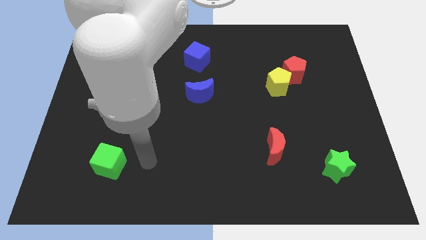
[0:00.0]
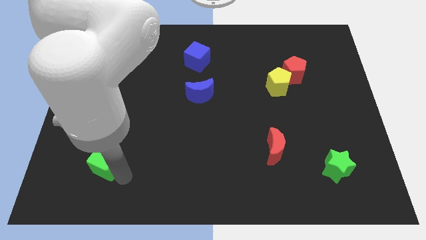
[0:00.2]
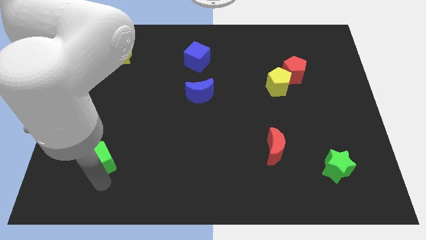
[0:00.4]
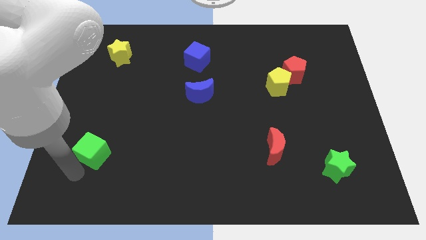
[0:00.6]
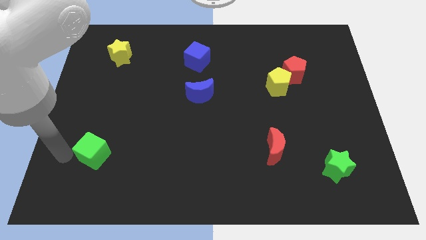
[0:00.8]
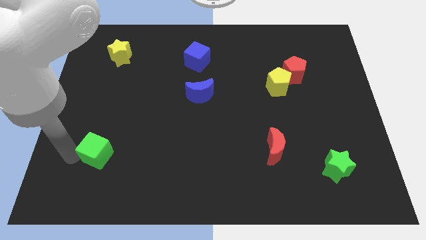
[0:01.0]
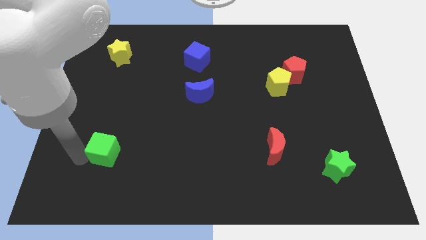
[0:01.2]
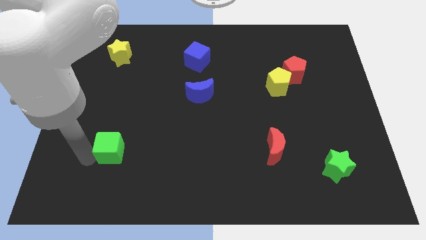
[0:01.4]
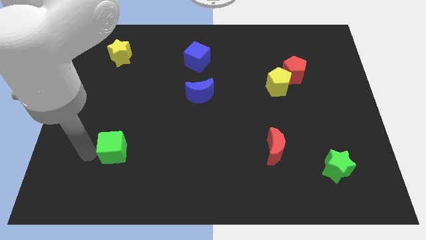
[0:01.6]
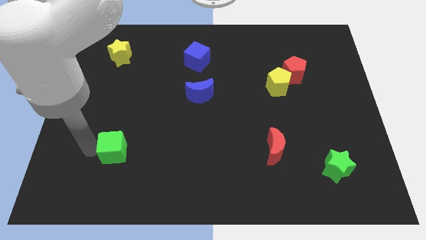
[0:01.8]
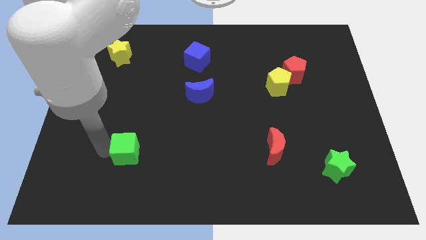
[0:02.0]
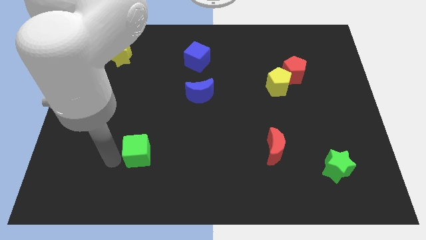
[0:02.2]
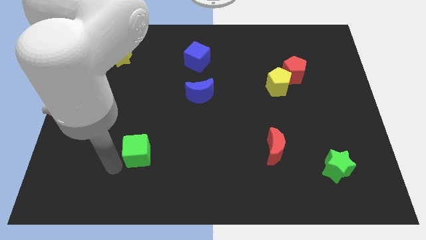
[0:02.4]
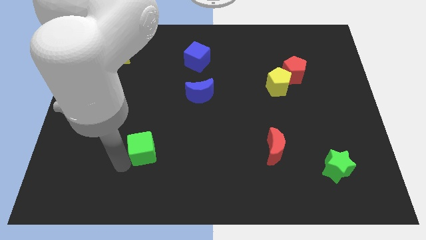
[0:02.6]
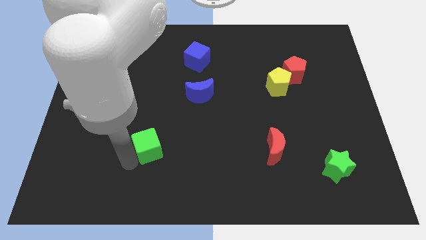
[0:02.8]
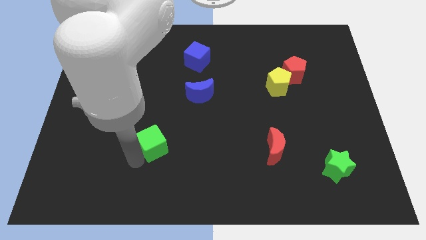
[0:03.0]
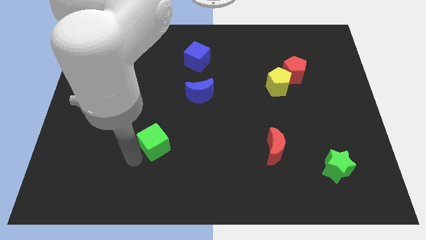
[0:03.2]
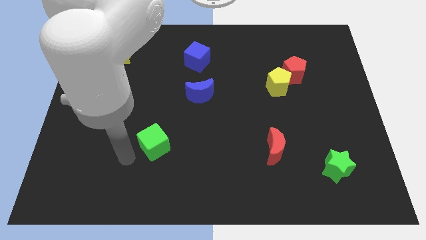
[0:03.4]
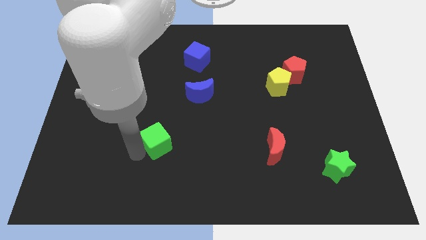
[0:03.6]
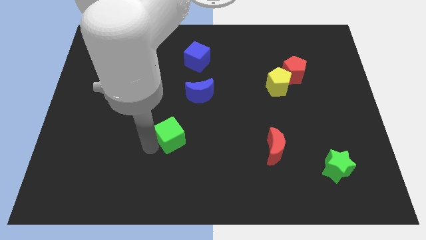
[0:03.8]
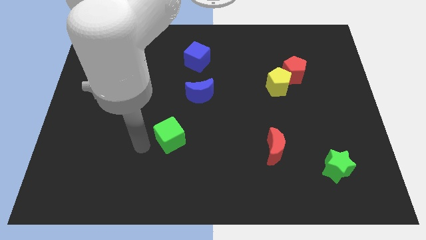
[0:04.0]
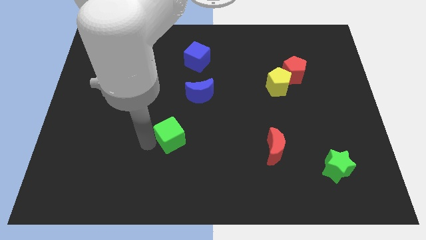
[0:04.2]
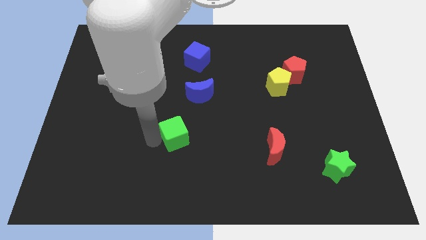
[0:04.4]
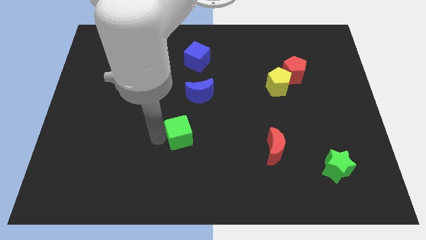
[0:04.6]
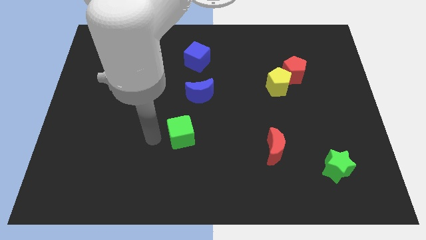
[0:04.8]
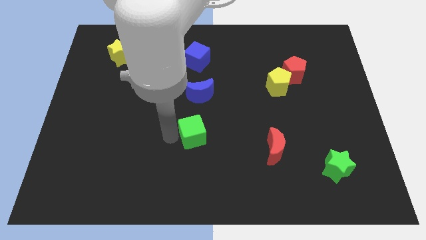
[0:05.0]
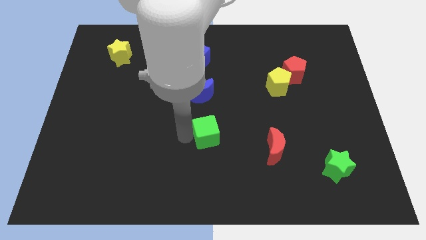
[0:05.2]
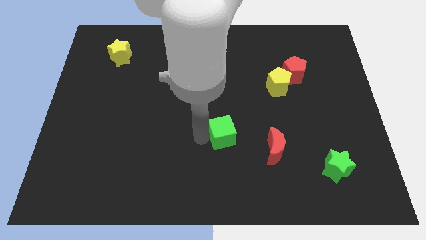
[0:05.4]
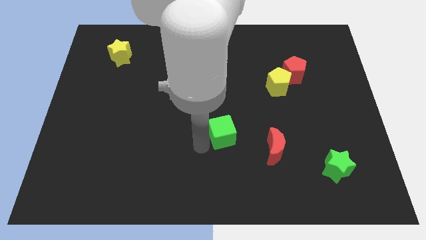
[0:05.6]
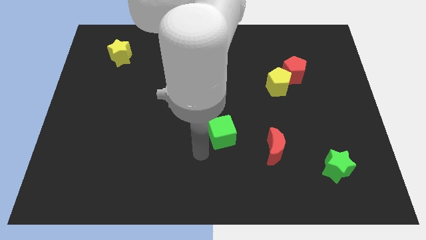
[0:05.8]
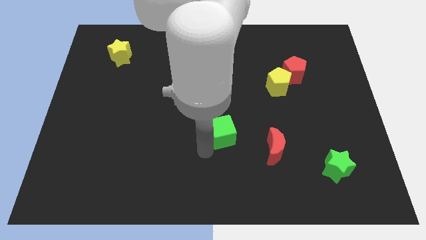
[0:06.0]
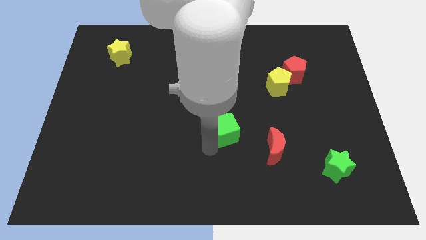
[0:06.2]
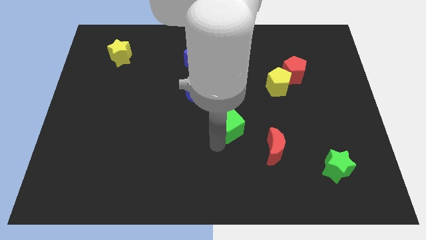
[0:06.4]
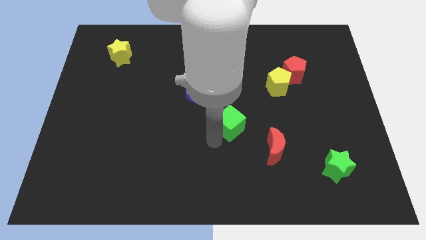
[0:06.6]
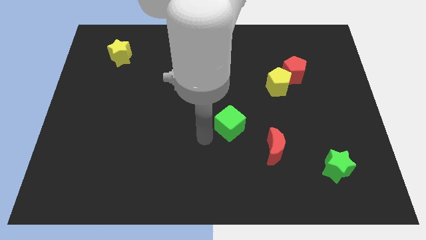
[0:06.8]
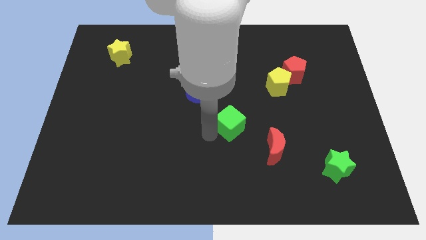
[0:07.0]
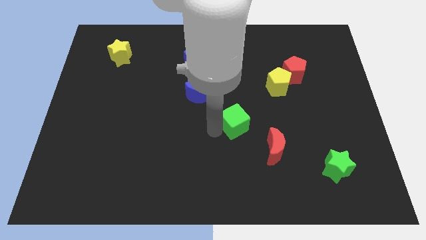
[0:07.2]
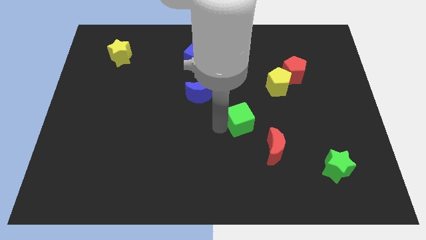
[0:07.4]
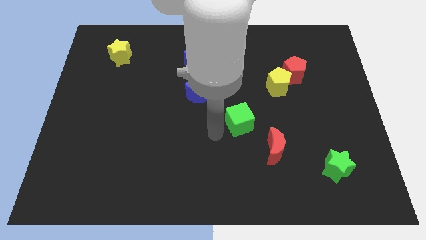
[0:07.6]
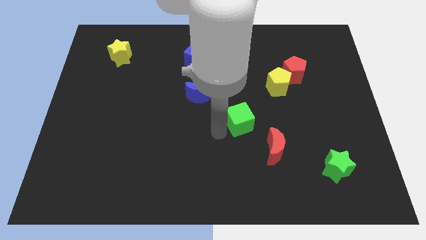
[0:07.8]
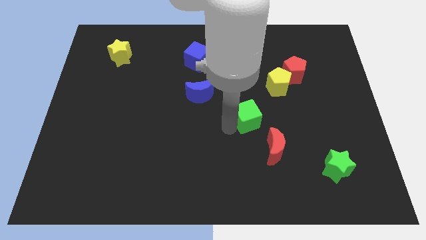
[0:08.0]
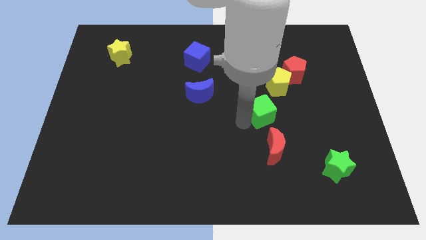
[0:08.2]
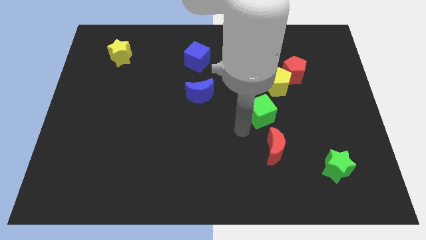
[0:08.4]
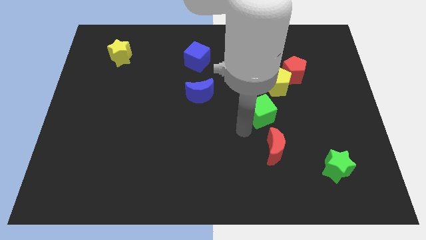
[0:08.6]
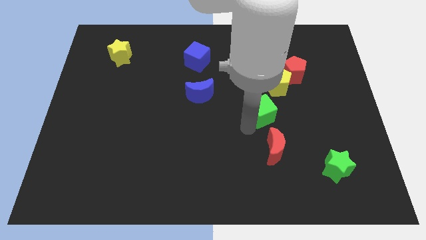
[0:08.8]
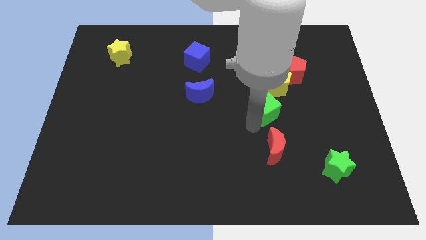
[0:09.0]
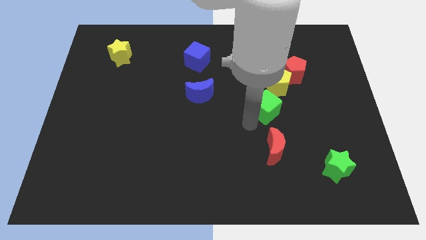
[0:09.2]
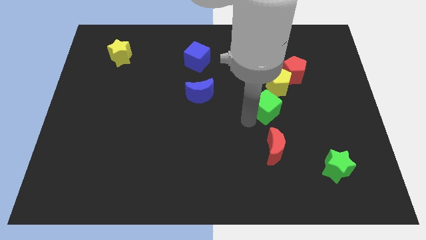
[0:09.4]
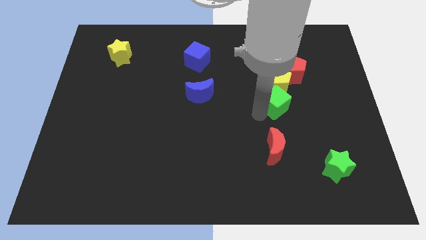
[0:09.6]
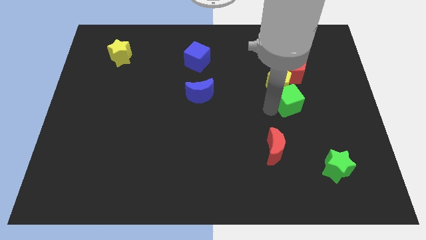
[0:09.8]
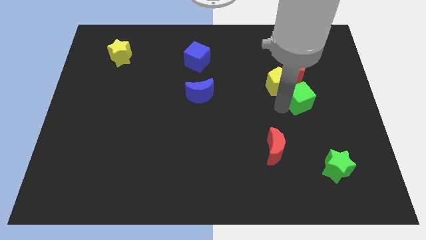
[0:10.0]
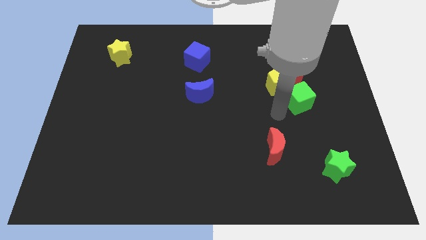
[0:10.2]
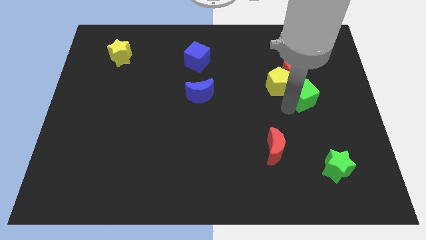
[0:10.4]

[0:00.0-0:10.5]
put the green cube to the bottom right of the red pentagon
